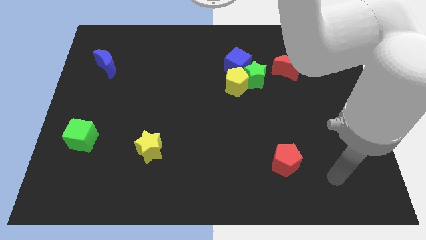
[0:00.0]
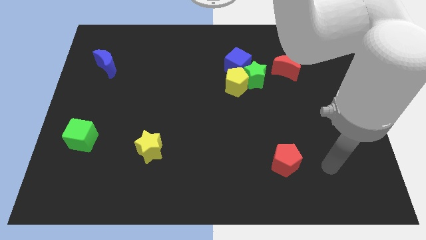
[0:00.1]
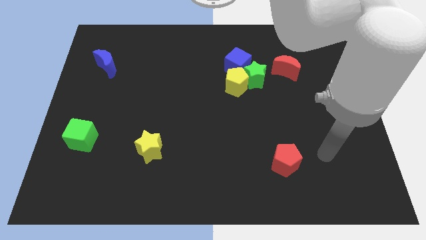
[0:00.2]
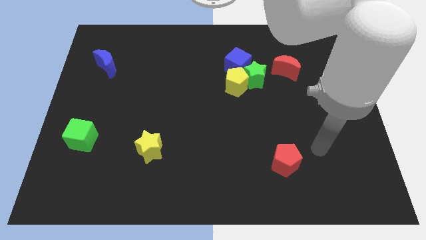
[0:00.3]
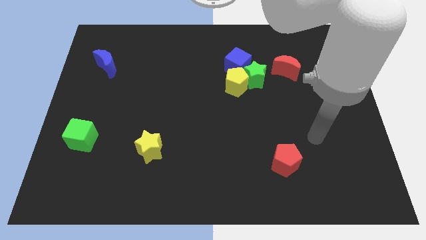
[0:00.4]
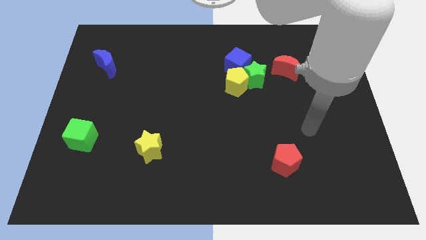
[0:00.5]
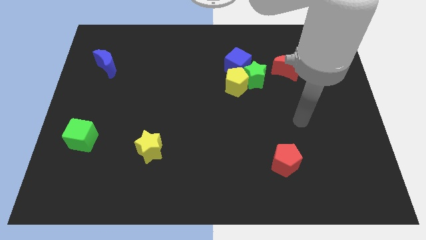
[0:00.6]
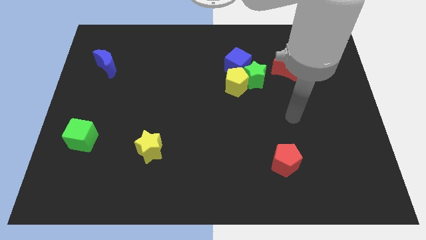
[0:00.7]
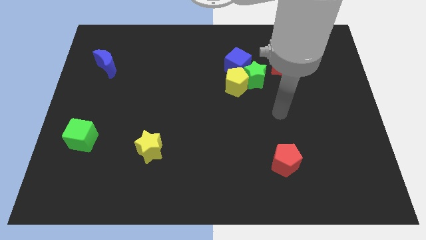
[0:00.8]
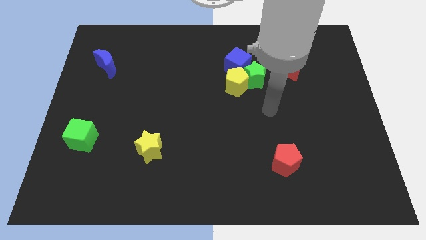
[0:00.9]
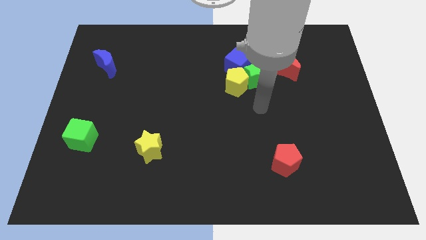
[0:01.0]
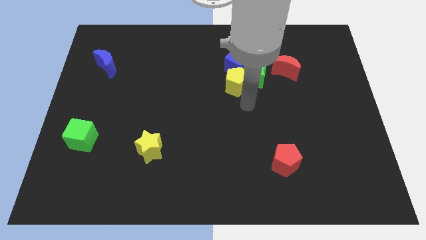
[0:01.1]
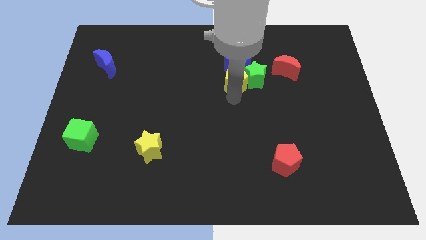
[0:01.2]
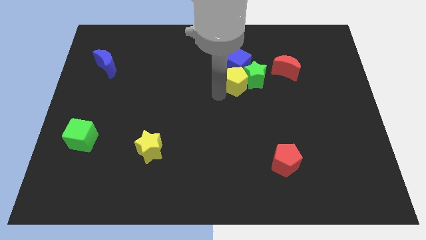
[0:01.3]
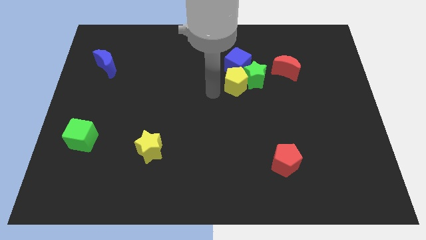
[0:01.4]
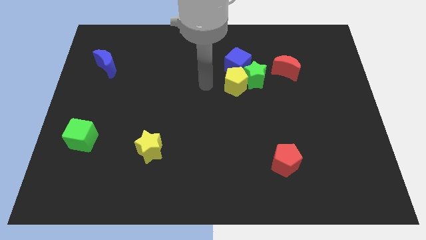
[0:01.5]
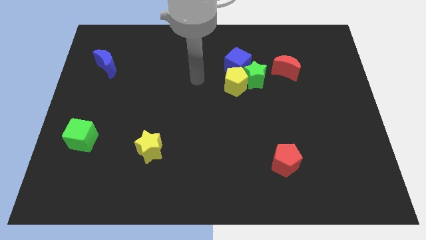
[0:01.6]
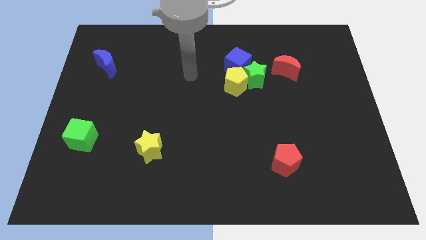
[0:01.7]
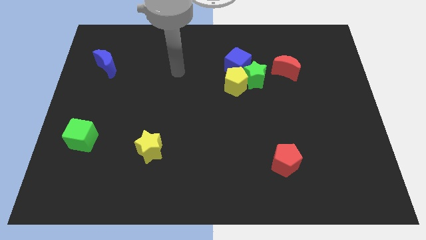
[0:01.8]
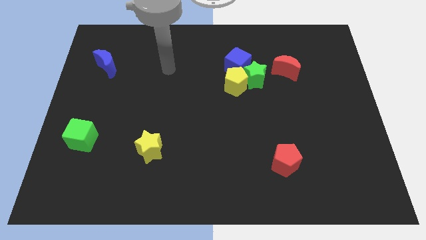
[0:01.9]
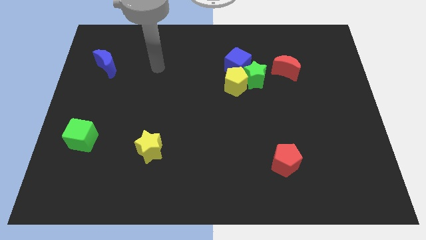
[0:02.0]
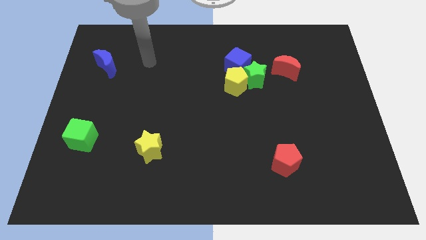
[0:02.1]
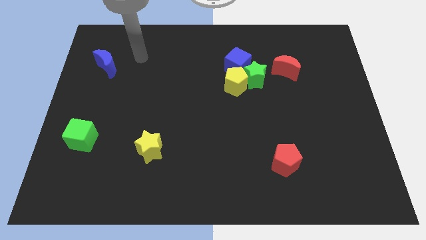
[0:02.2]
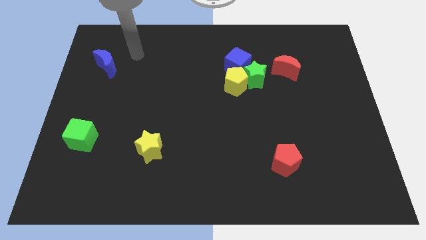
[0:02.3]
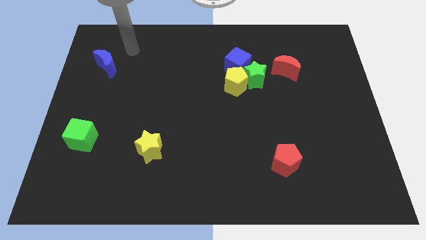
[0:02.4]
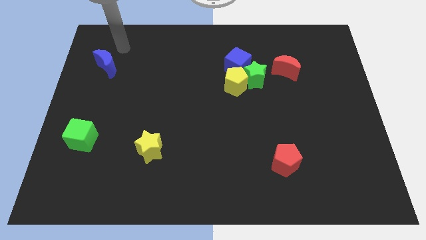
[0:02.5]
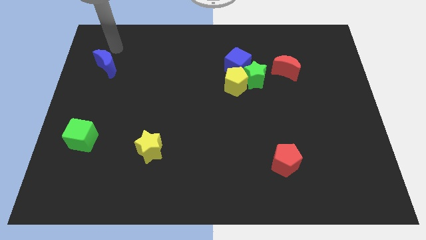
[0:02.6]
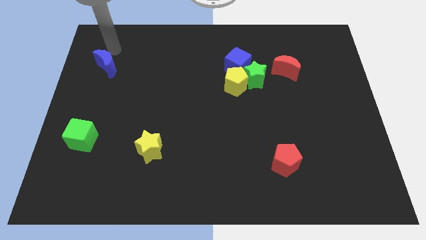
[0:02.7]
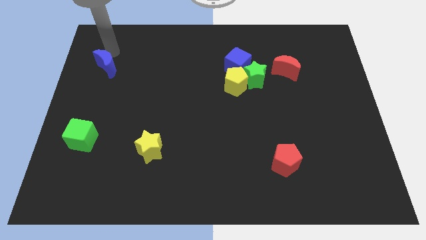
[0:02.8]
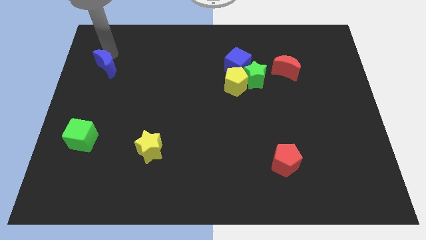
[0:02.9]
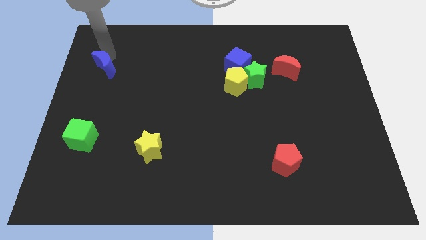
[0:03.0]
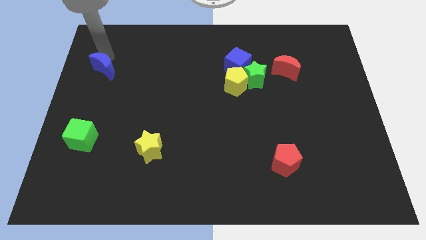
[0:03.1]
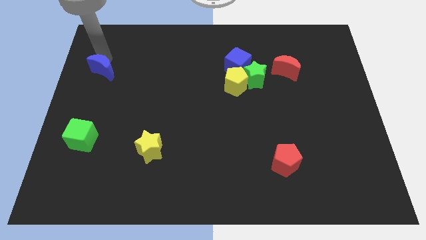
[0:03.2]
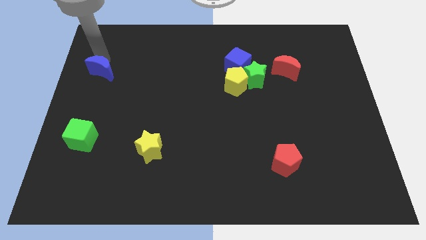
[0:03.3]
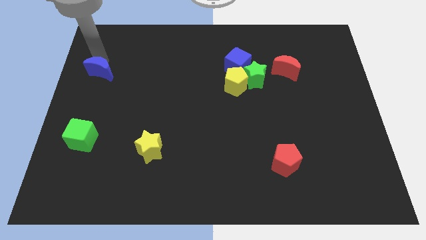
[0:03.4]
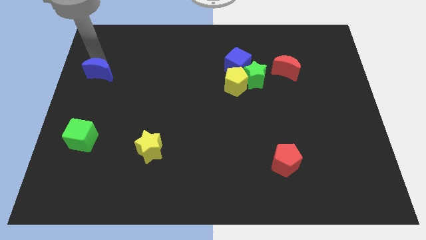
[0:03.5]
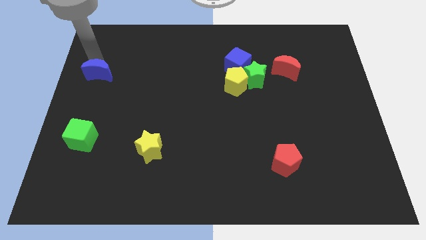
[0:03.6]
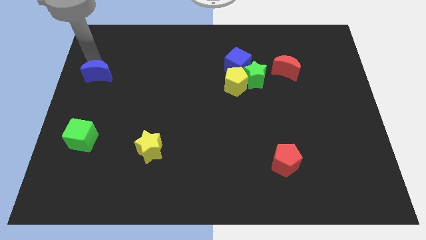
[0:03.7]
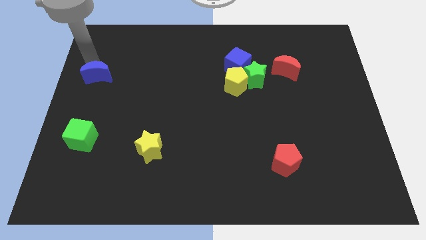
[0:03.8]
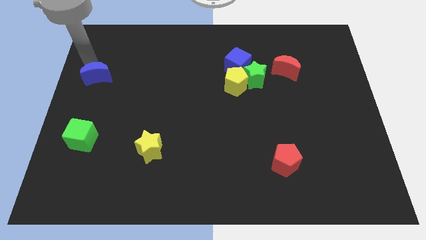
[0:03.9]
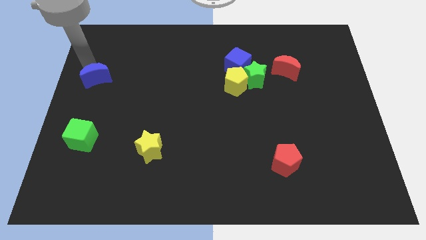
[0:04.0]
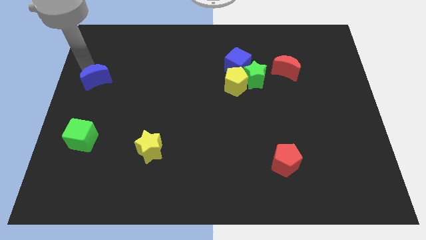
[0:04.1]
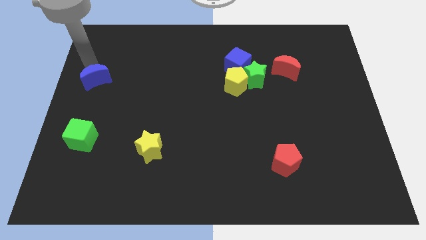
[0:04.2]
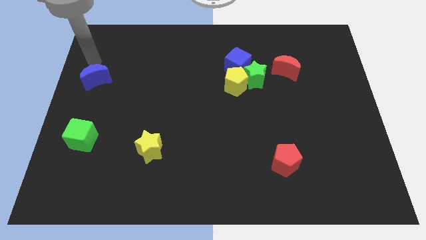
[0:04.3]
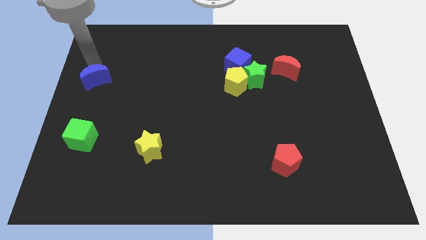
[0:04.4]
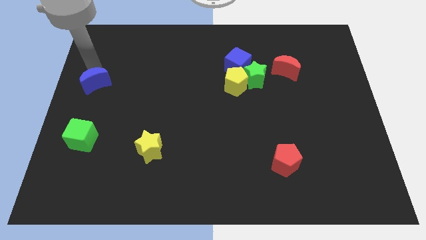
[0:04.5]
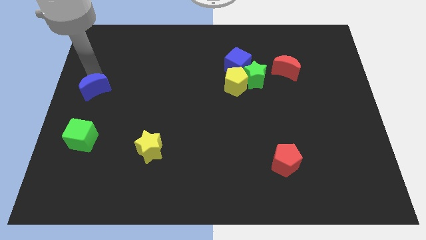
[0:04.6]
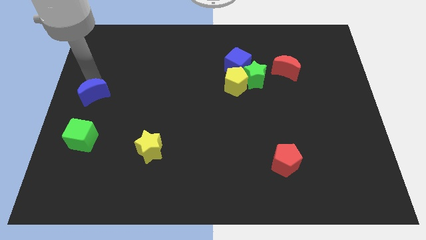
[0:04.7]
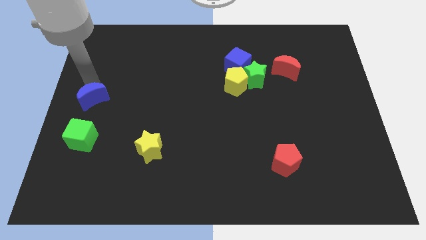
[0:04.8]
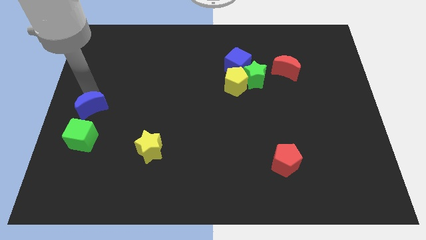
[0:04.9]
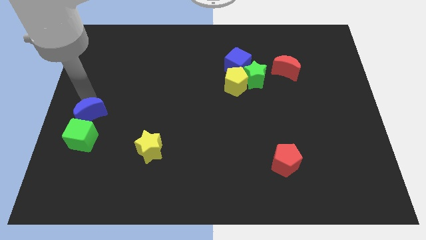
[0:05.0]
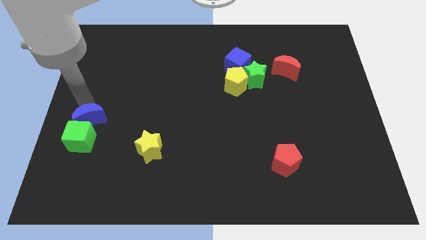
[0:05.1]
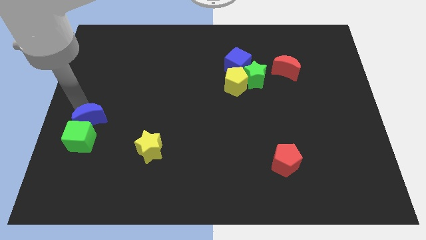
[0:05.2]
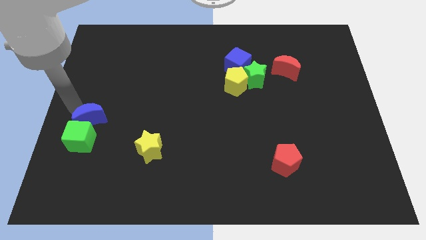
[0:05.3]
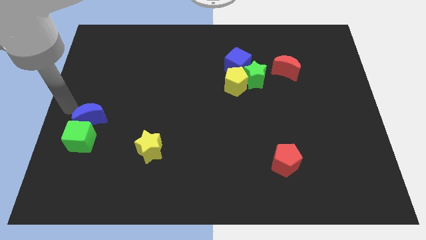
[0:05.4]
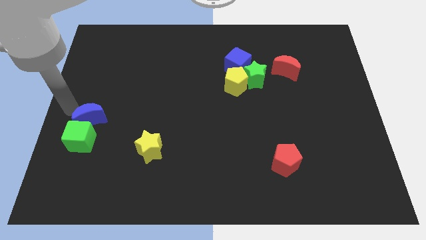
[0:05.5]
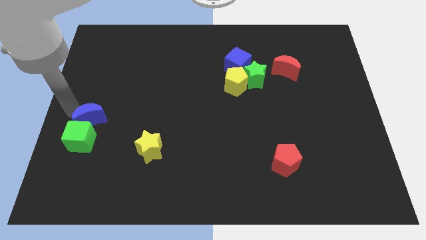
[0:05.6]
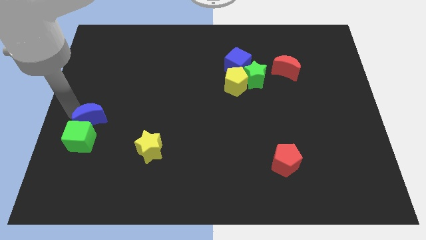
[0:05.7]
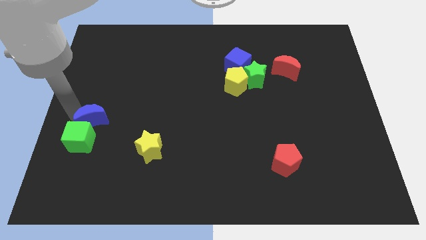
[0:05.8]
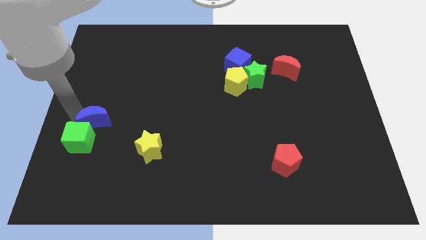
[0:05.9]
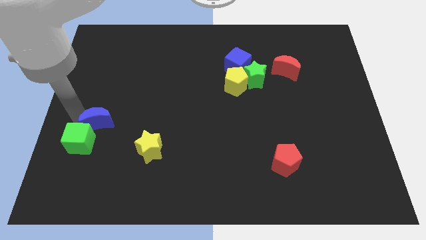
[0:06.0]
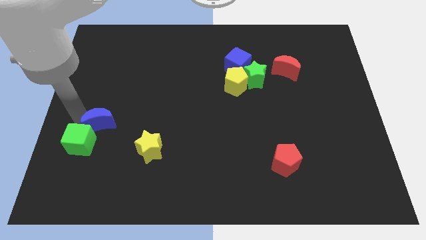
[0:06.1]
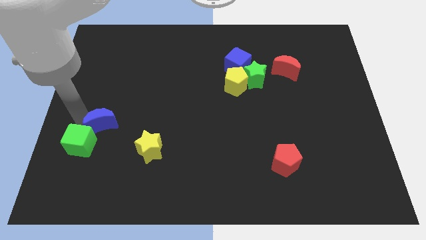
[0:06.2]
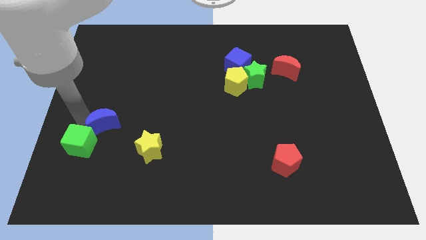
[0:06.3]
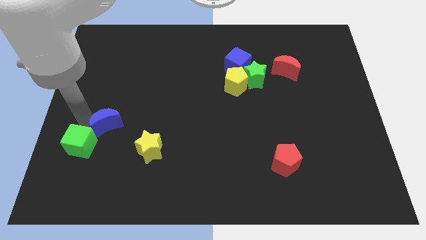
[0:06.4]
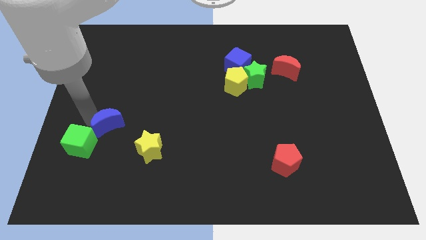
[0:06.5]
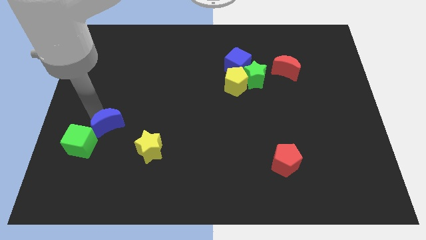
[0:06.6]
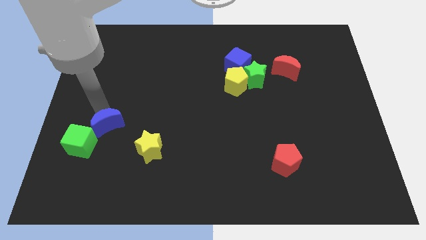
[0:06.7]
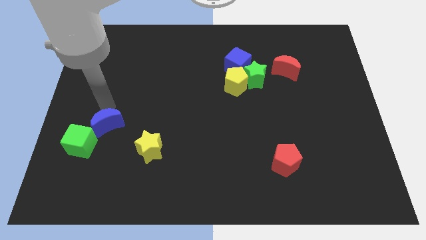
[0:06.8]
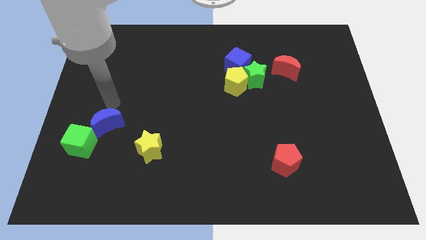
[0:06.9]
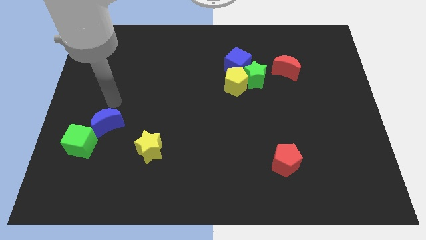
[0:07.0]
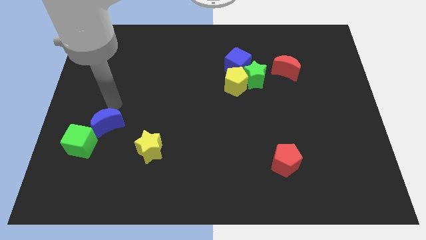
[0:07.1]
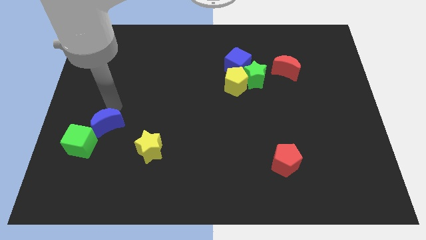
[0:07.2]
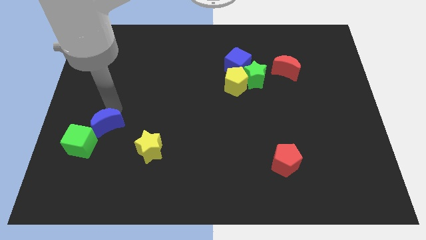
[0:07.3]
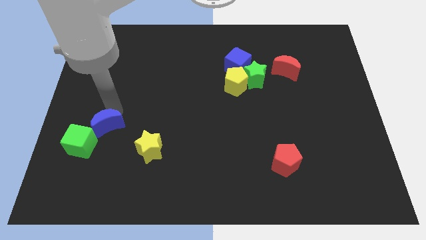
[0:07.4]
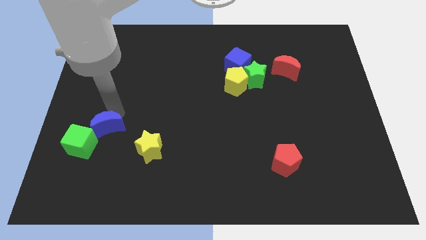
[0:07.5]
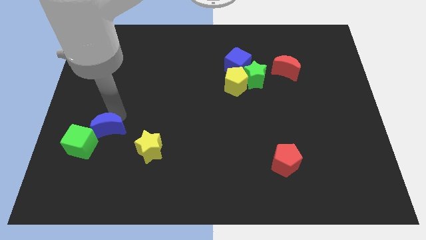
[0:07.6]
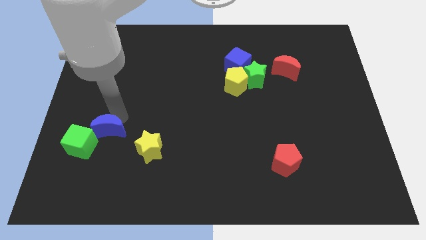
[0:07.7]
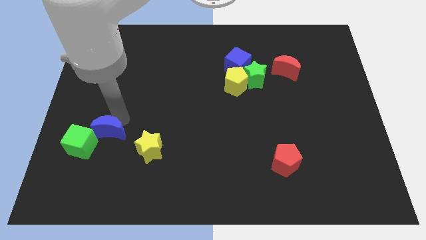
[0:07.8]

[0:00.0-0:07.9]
put the blue moon to the left side of the yellow star
